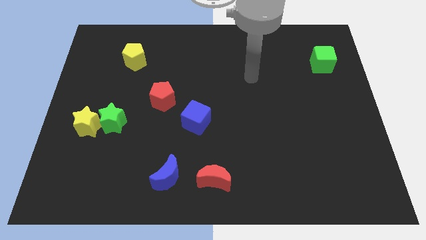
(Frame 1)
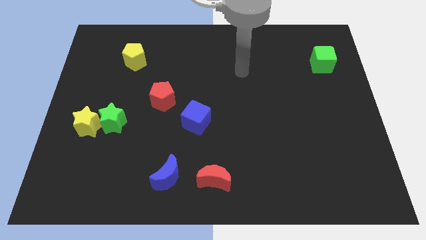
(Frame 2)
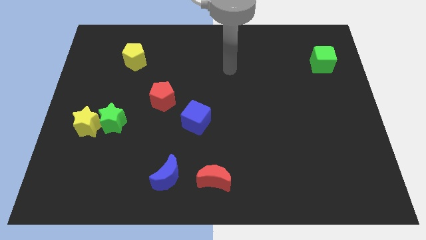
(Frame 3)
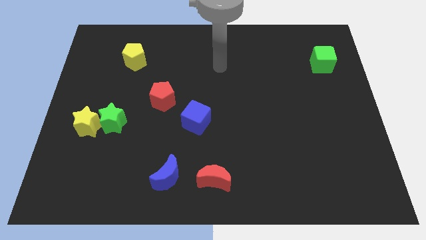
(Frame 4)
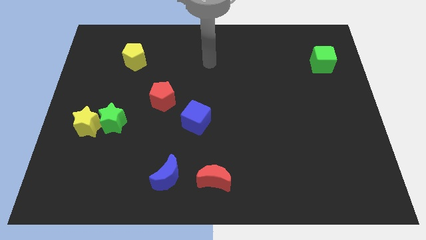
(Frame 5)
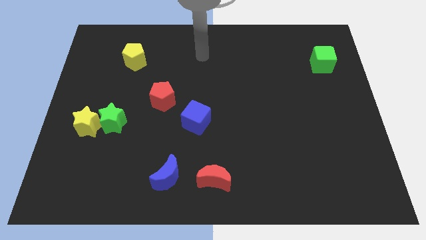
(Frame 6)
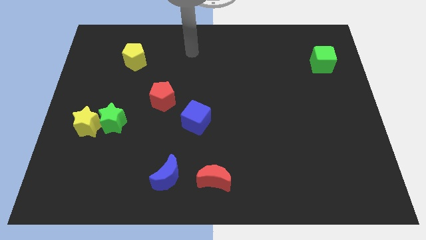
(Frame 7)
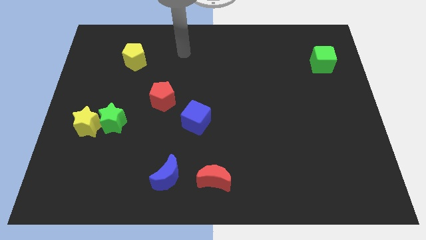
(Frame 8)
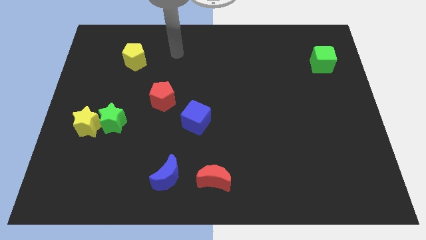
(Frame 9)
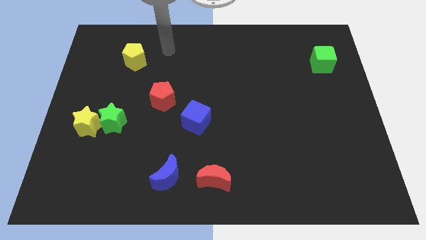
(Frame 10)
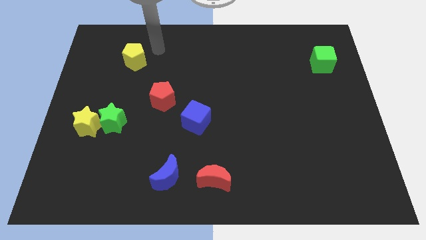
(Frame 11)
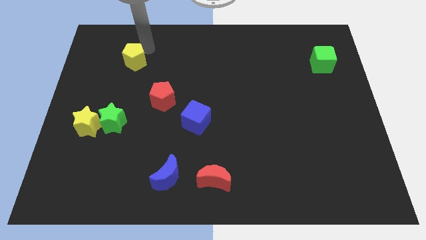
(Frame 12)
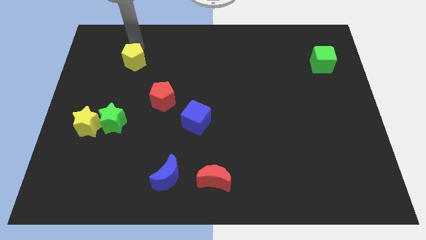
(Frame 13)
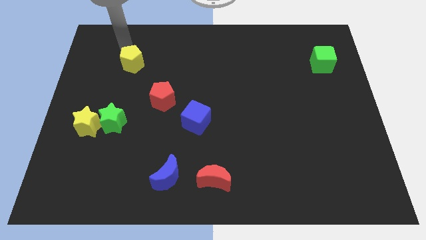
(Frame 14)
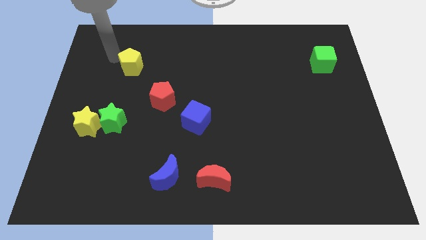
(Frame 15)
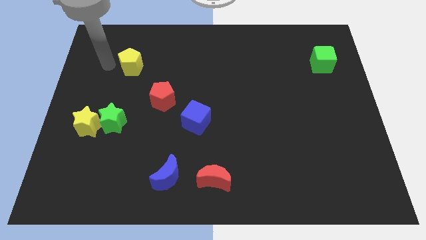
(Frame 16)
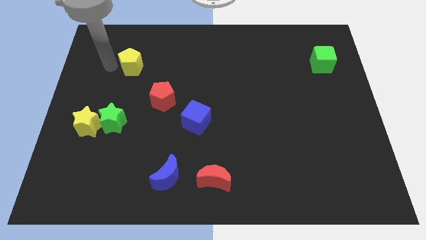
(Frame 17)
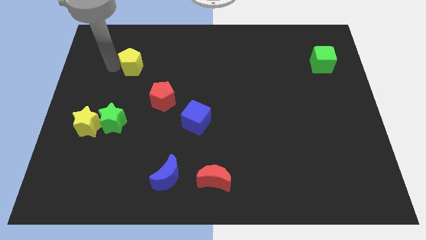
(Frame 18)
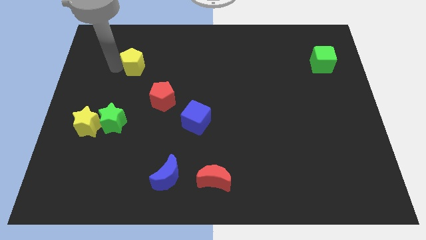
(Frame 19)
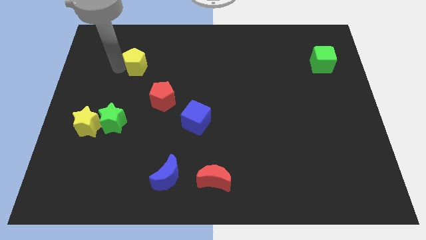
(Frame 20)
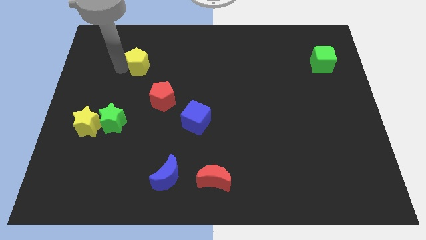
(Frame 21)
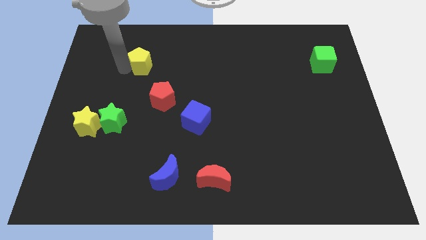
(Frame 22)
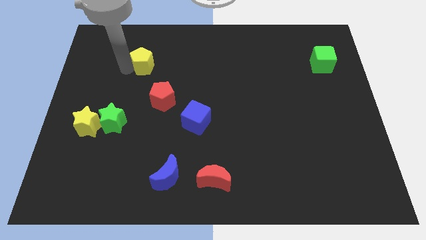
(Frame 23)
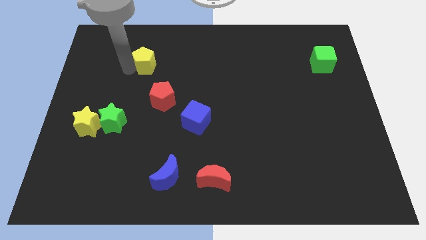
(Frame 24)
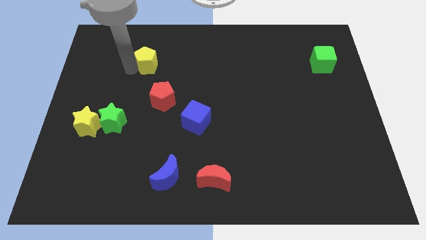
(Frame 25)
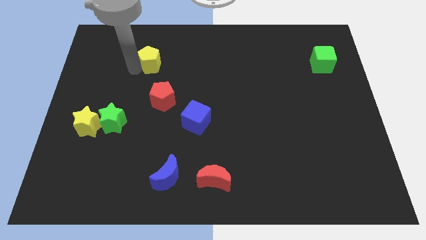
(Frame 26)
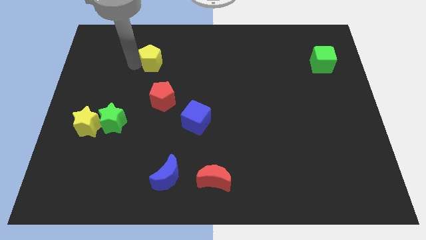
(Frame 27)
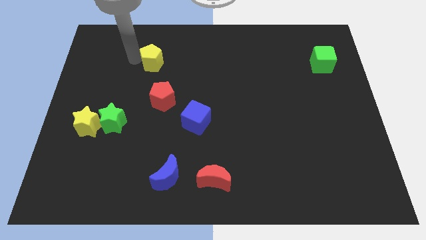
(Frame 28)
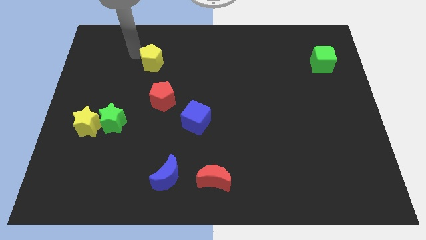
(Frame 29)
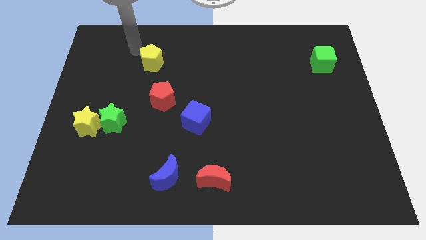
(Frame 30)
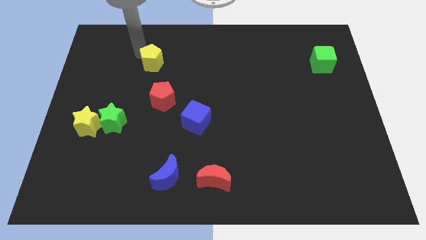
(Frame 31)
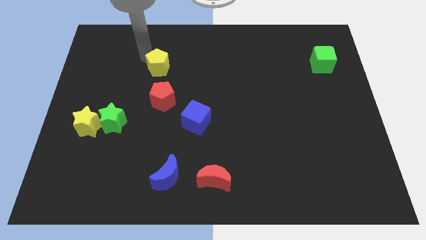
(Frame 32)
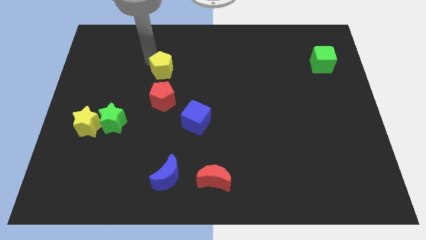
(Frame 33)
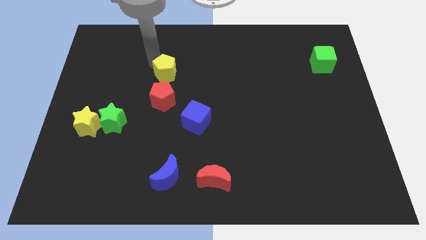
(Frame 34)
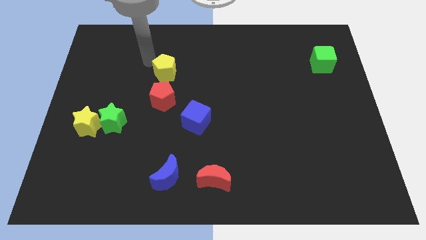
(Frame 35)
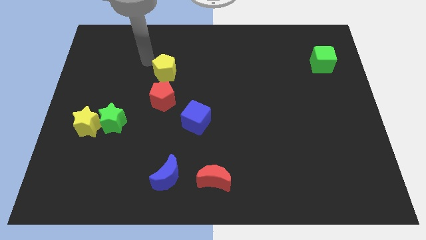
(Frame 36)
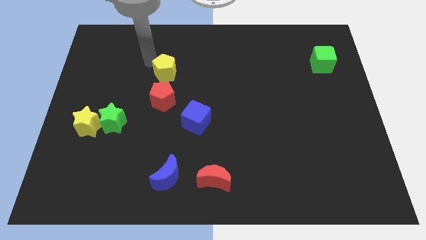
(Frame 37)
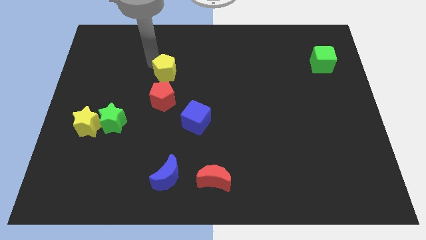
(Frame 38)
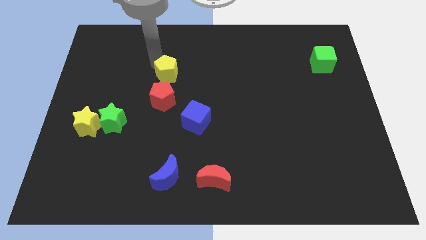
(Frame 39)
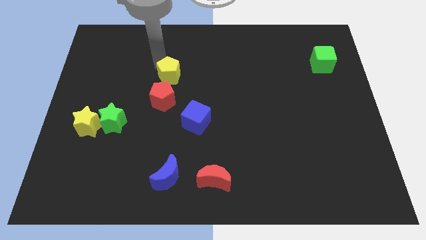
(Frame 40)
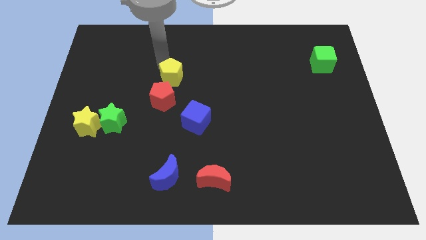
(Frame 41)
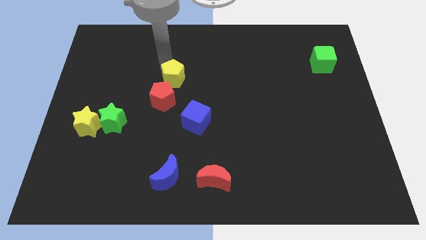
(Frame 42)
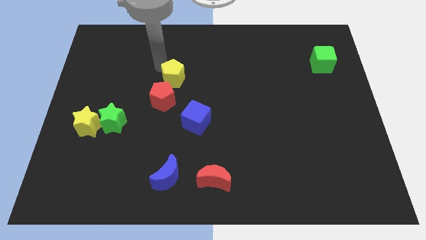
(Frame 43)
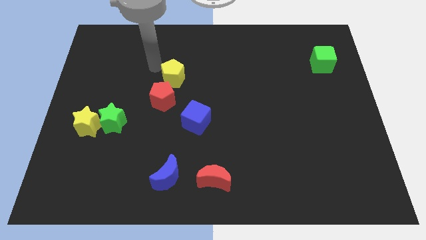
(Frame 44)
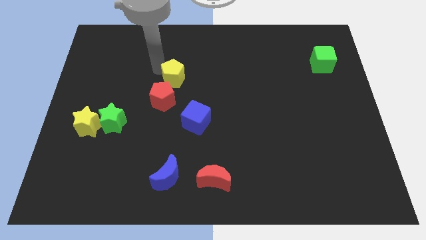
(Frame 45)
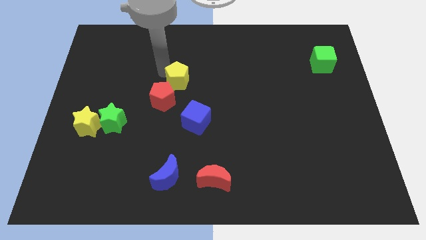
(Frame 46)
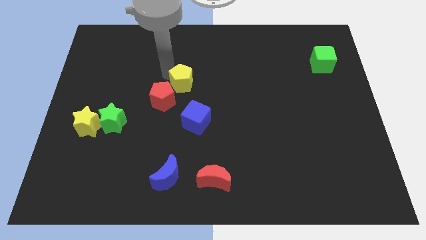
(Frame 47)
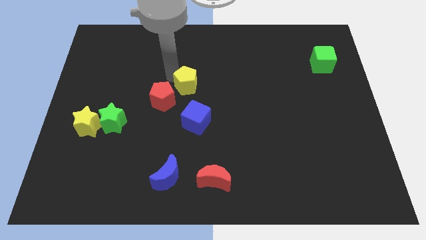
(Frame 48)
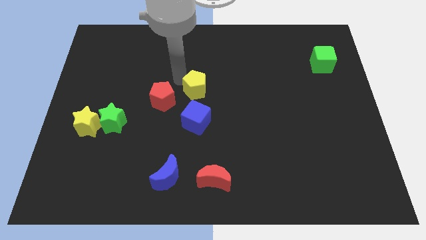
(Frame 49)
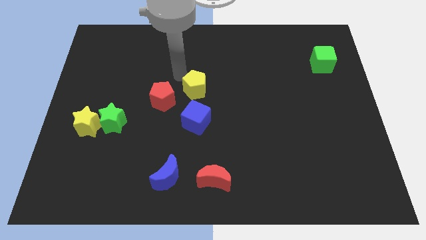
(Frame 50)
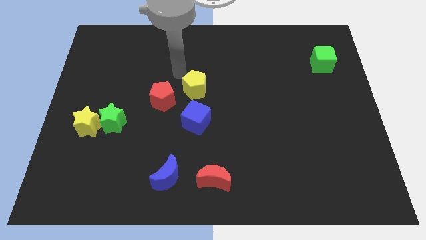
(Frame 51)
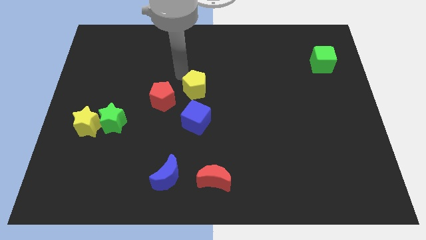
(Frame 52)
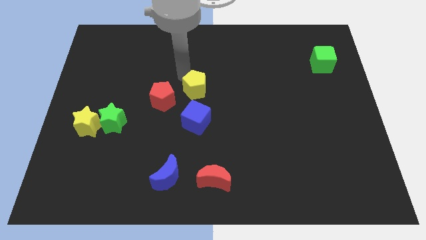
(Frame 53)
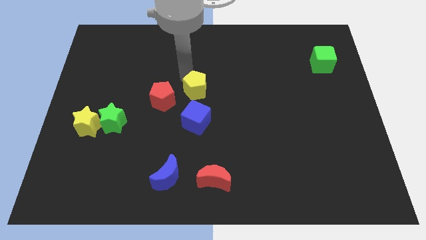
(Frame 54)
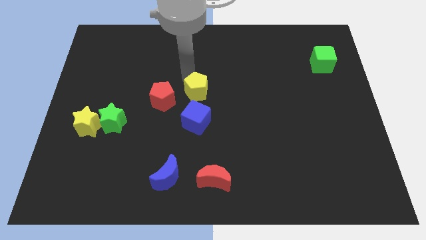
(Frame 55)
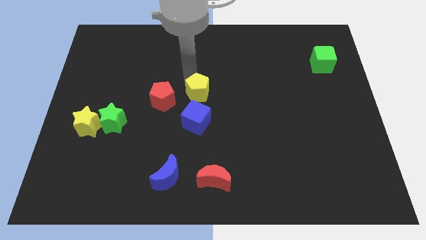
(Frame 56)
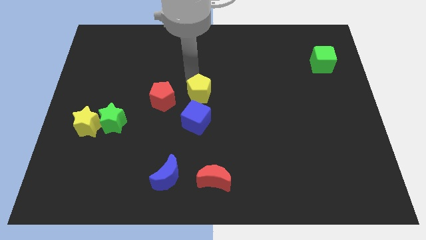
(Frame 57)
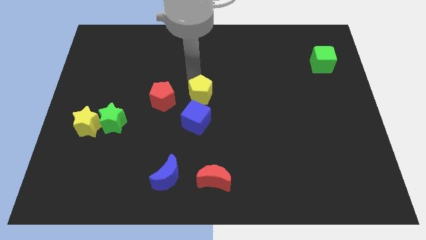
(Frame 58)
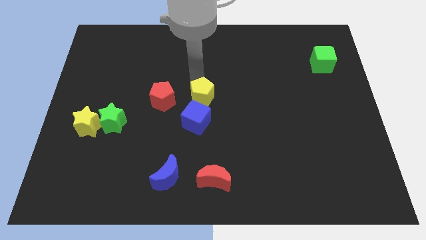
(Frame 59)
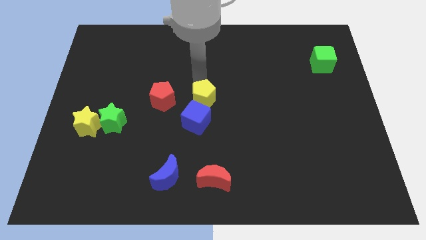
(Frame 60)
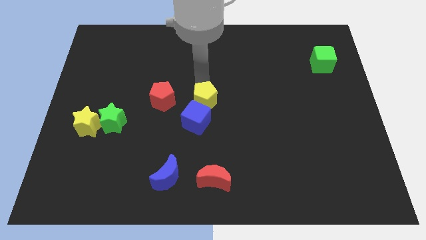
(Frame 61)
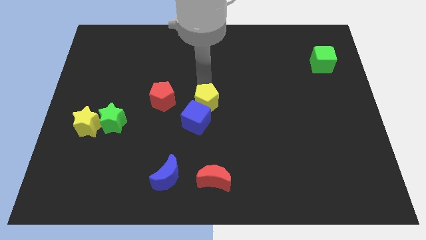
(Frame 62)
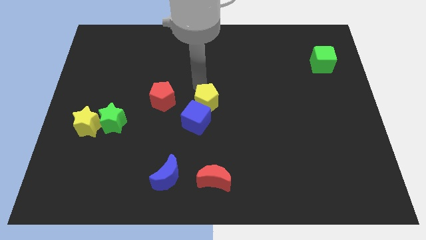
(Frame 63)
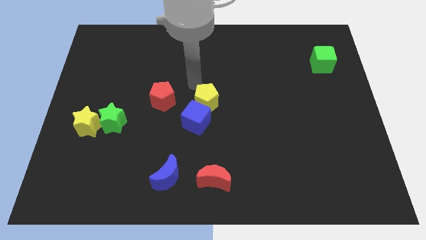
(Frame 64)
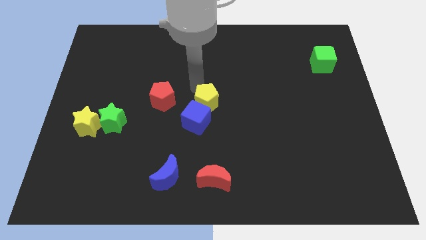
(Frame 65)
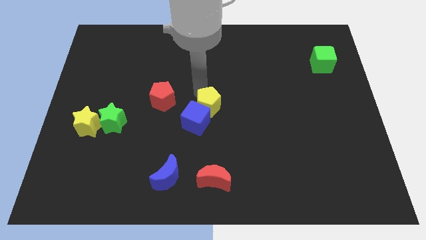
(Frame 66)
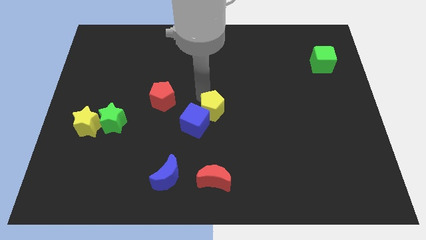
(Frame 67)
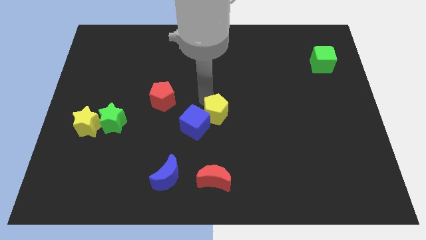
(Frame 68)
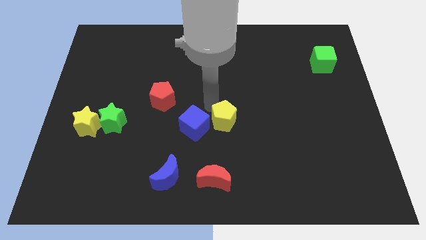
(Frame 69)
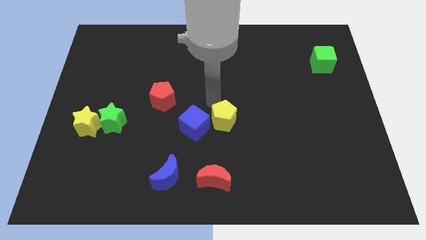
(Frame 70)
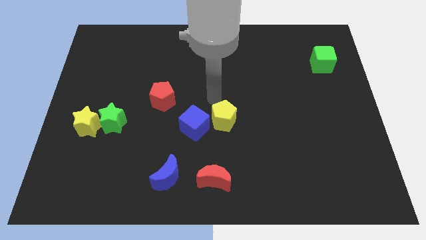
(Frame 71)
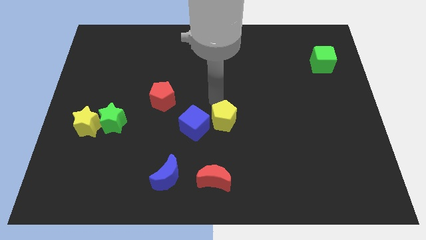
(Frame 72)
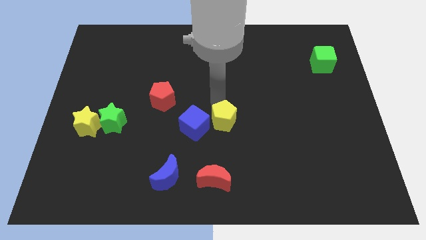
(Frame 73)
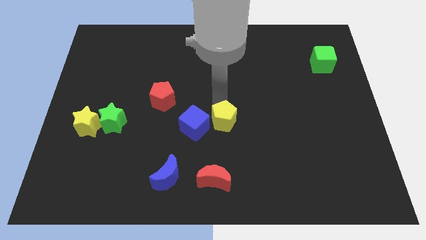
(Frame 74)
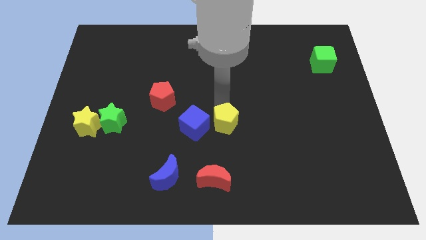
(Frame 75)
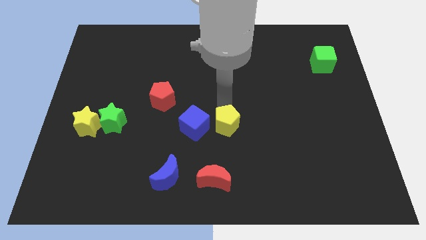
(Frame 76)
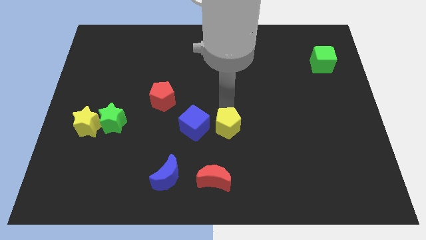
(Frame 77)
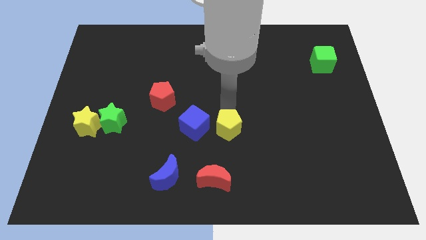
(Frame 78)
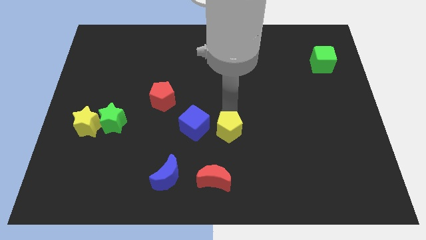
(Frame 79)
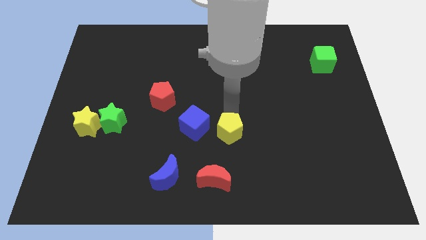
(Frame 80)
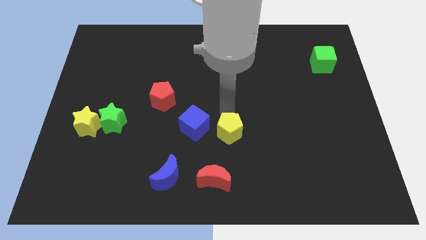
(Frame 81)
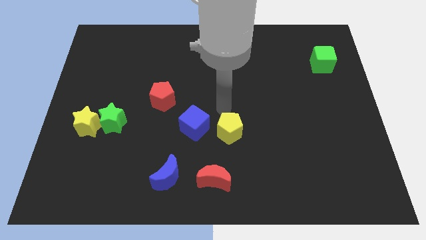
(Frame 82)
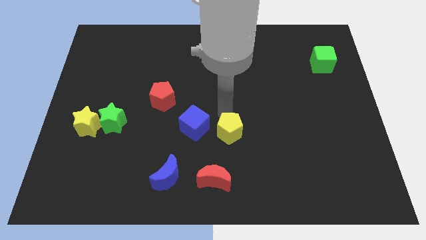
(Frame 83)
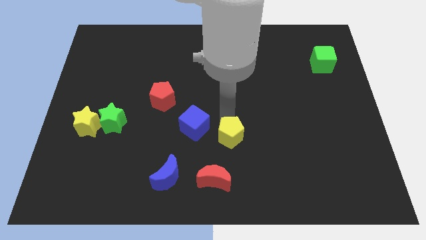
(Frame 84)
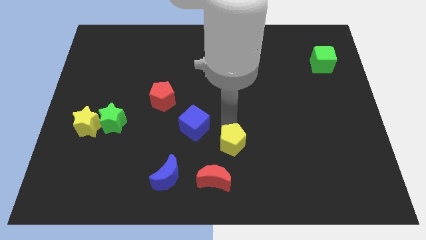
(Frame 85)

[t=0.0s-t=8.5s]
move the yellow pentagon to the top right of the red moon

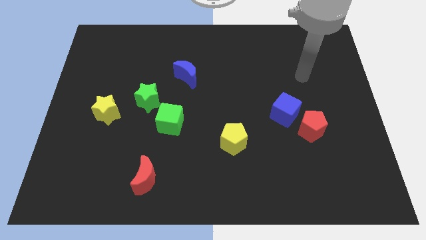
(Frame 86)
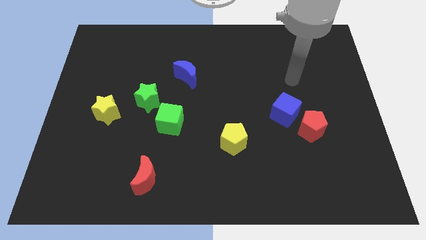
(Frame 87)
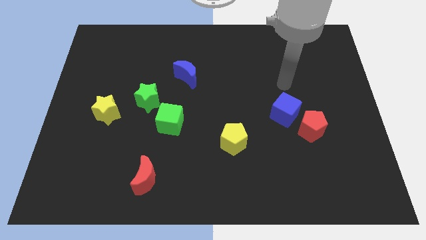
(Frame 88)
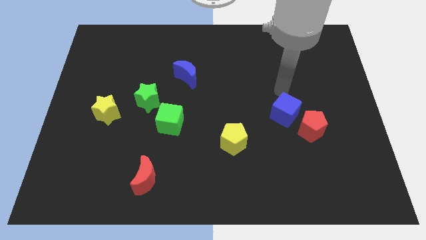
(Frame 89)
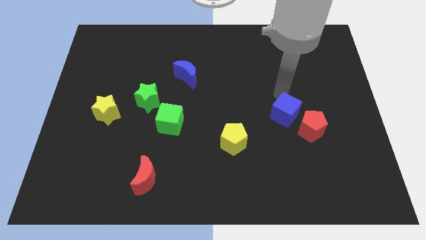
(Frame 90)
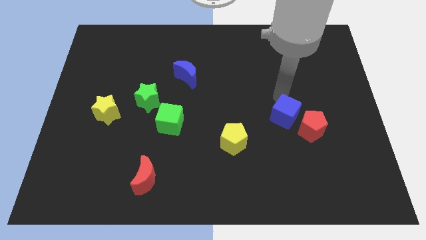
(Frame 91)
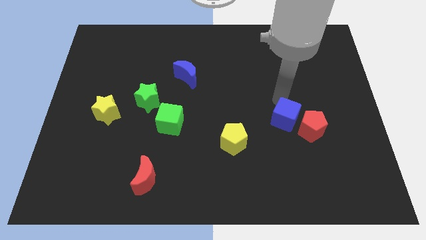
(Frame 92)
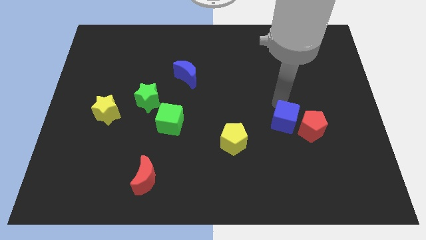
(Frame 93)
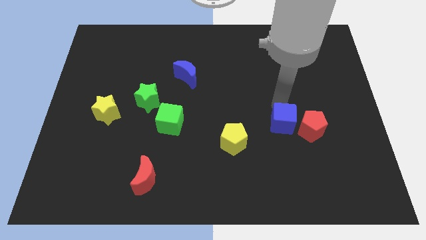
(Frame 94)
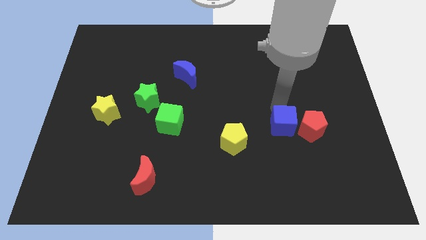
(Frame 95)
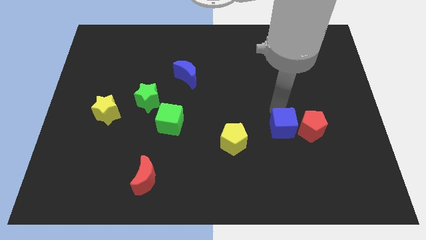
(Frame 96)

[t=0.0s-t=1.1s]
slide the blue cube diagonally down and to the left of the red pentagon
